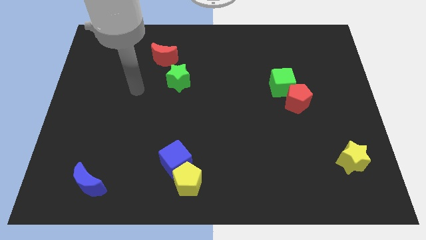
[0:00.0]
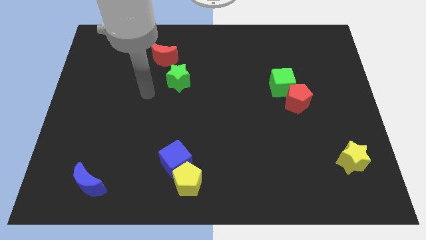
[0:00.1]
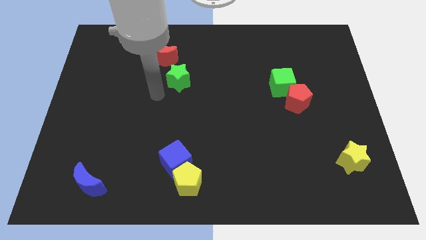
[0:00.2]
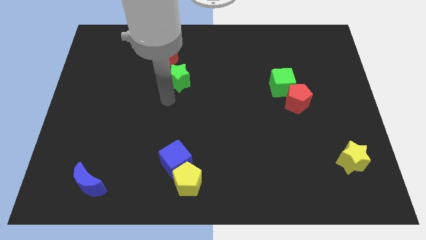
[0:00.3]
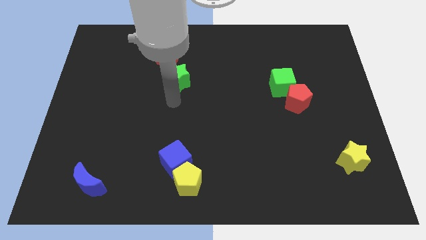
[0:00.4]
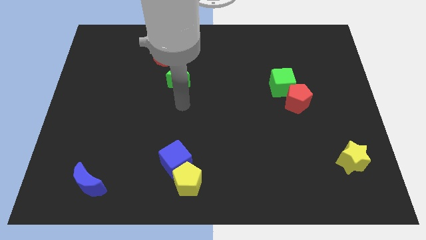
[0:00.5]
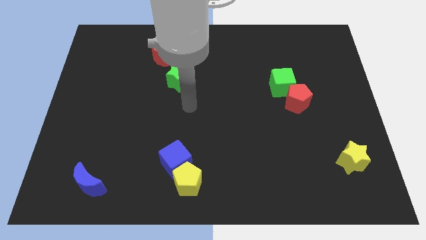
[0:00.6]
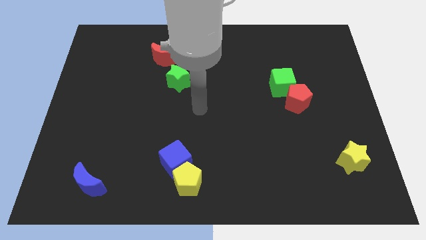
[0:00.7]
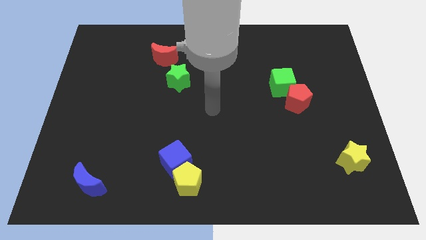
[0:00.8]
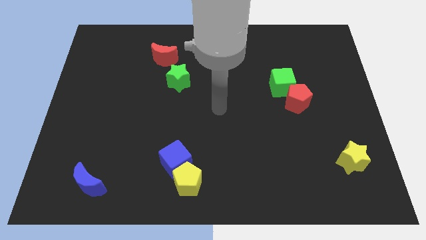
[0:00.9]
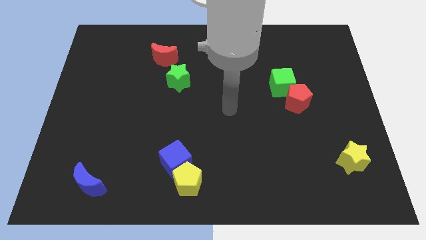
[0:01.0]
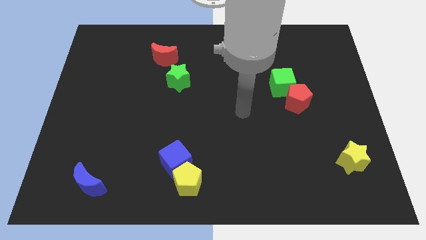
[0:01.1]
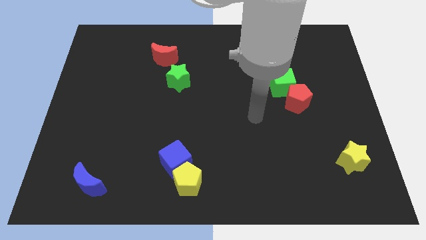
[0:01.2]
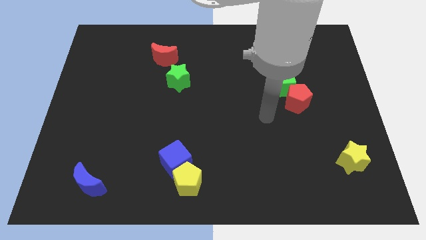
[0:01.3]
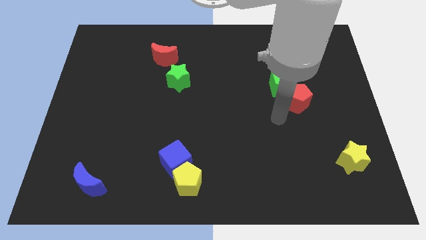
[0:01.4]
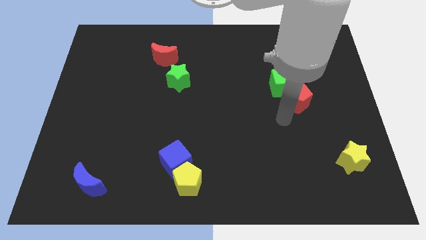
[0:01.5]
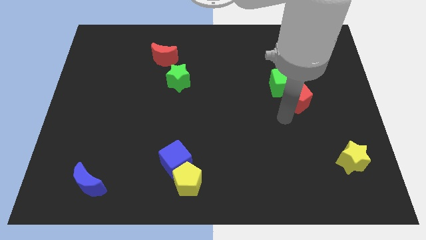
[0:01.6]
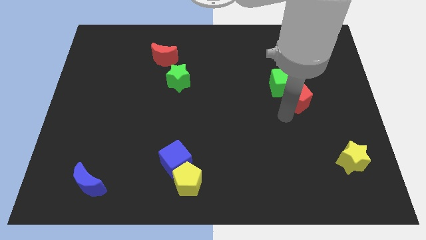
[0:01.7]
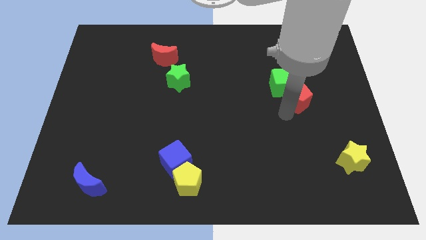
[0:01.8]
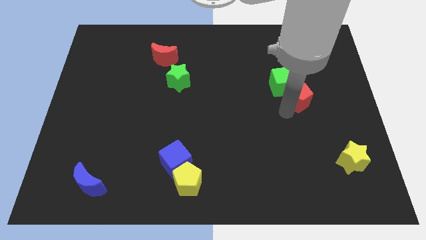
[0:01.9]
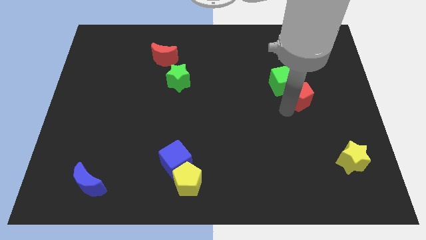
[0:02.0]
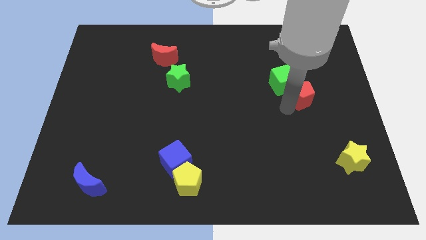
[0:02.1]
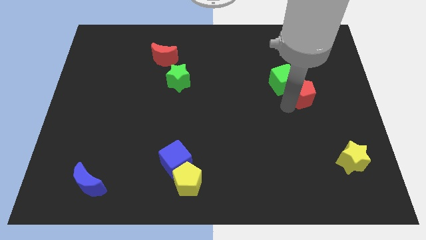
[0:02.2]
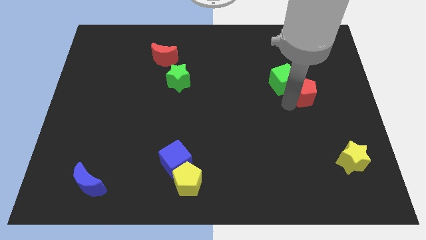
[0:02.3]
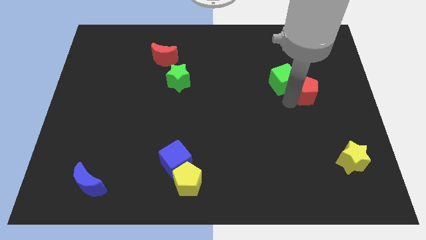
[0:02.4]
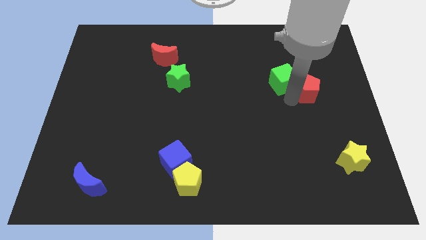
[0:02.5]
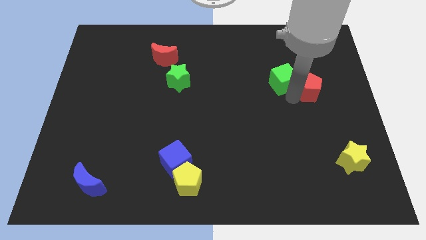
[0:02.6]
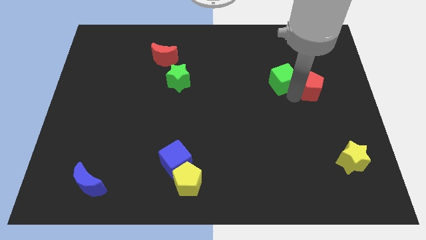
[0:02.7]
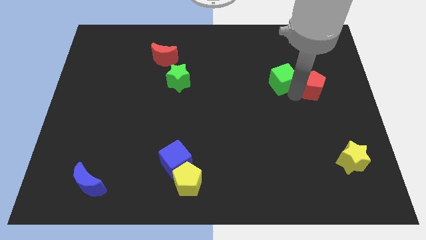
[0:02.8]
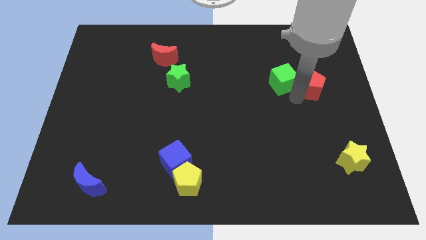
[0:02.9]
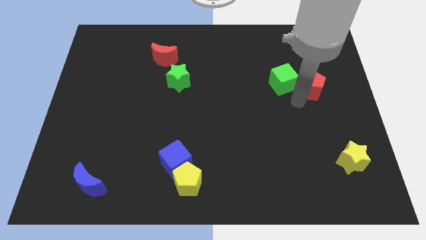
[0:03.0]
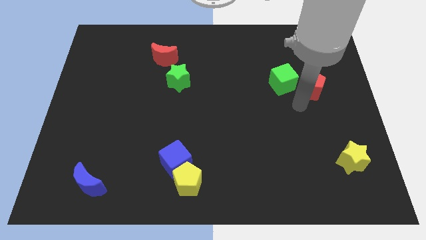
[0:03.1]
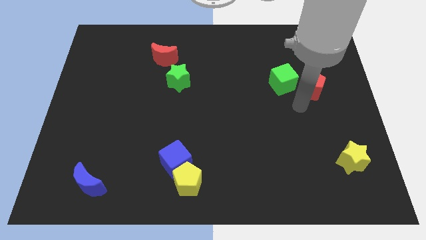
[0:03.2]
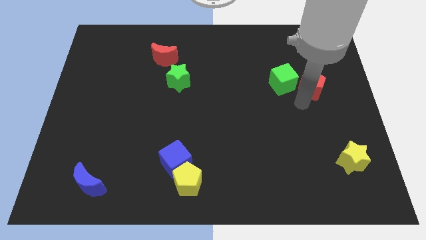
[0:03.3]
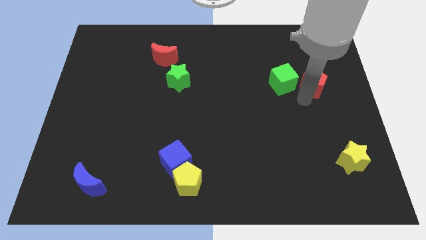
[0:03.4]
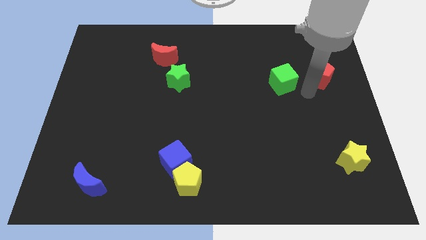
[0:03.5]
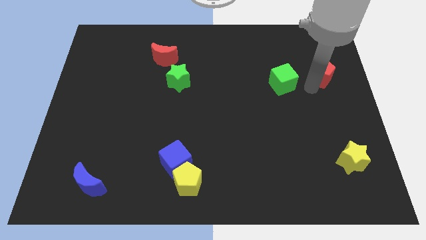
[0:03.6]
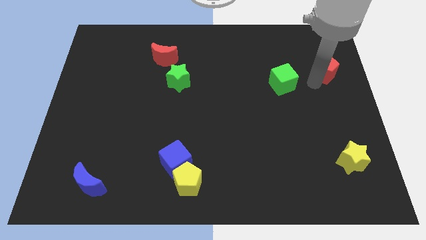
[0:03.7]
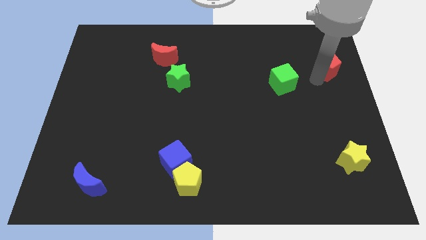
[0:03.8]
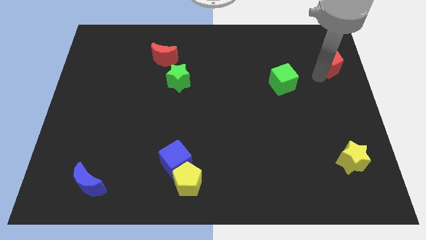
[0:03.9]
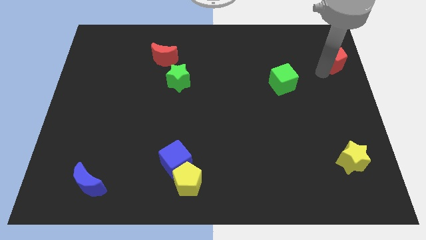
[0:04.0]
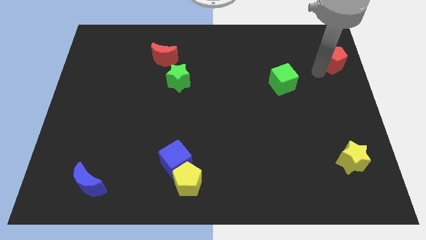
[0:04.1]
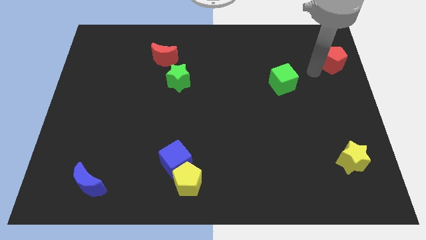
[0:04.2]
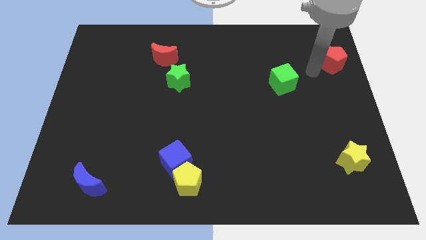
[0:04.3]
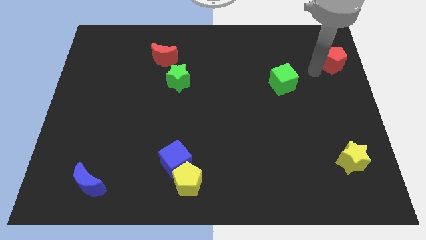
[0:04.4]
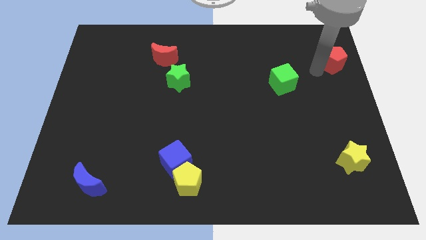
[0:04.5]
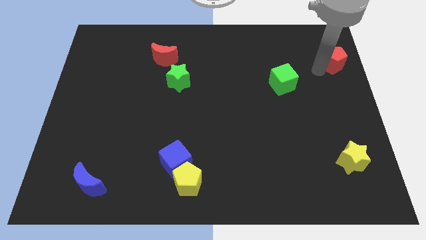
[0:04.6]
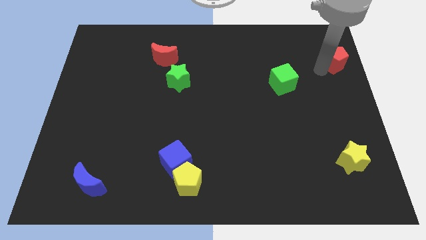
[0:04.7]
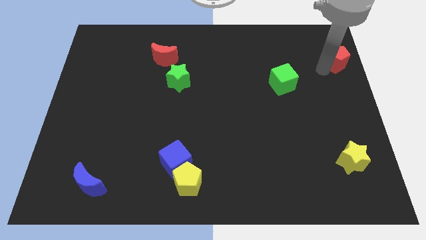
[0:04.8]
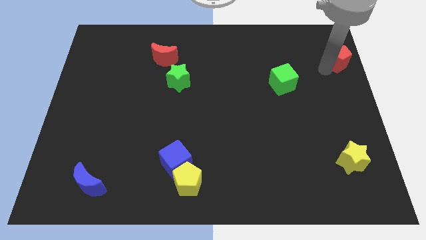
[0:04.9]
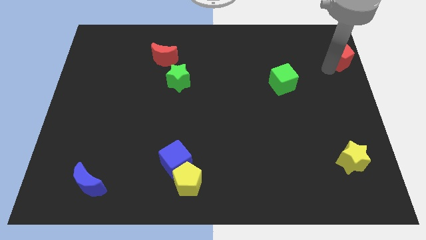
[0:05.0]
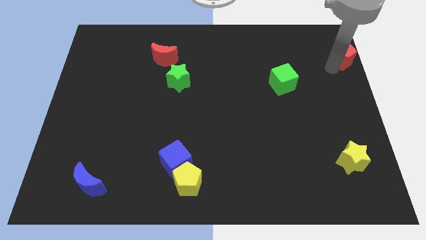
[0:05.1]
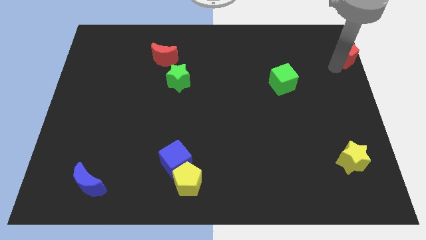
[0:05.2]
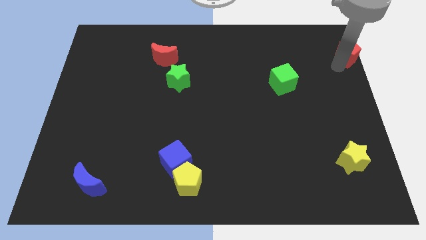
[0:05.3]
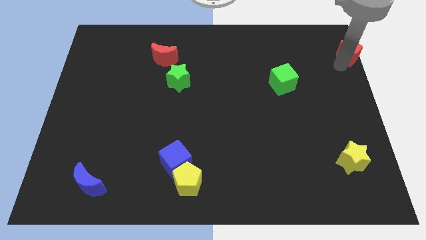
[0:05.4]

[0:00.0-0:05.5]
move the red pentagon to the top right of the board
